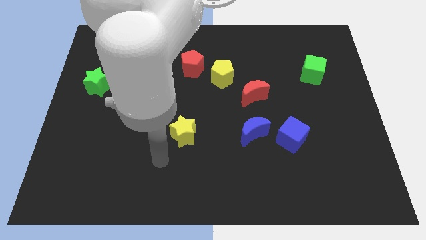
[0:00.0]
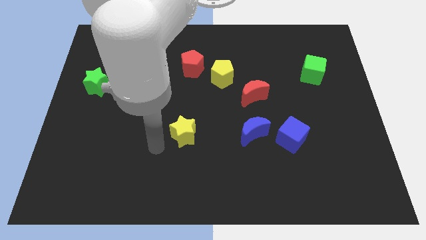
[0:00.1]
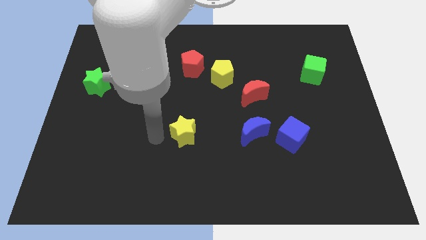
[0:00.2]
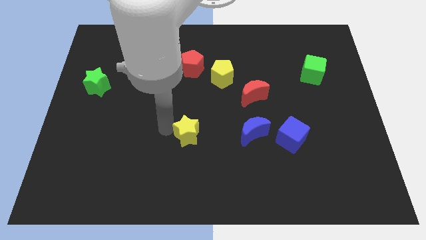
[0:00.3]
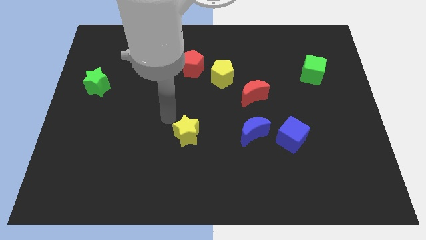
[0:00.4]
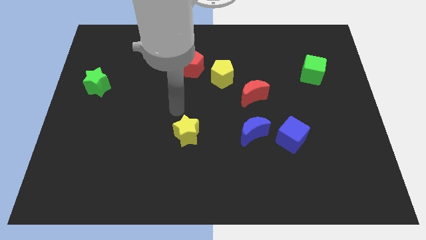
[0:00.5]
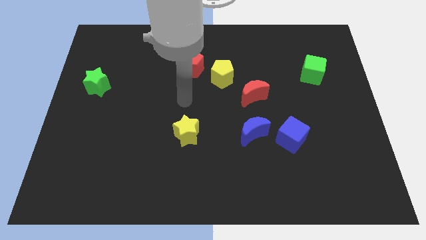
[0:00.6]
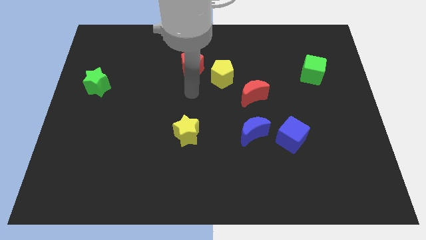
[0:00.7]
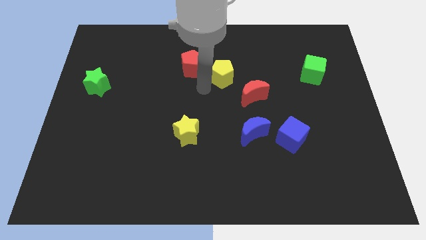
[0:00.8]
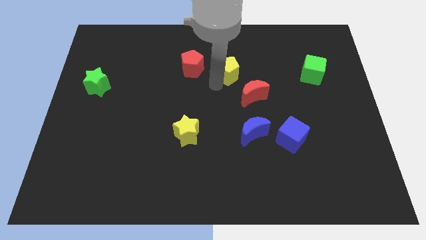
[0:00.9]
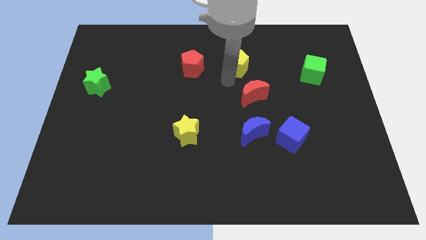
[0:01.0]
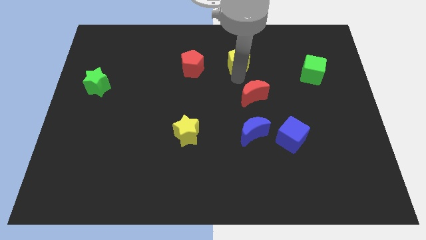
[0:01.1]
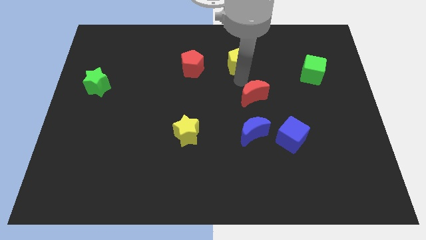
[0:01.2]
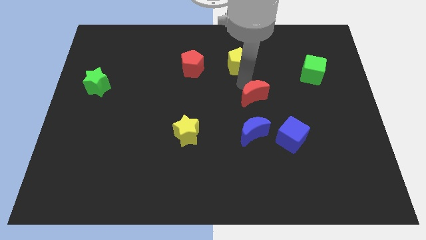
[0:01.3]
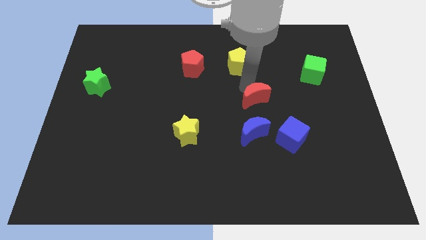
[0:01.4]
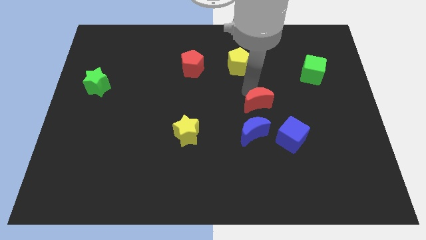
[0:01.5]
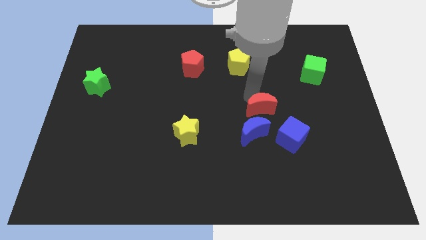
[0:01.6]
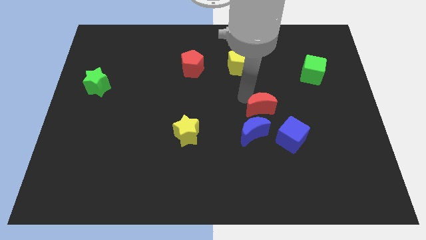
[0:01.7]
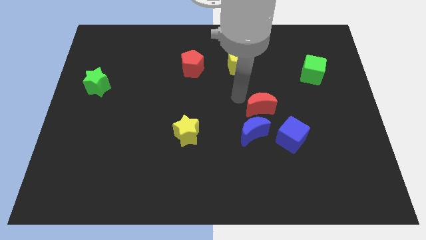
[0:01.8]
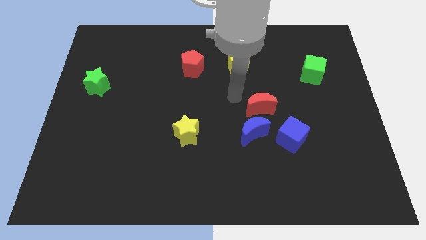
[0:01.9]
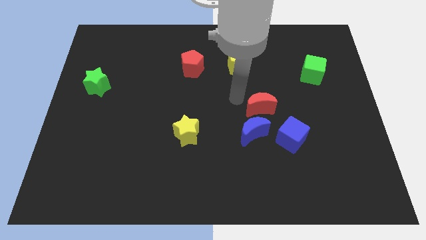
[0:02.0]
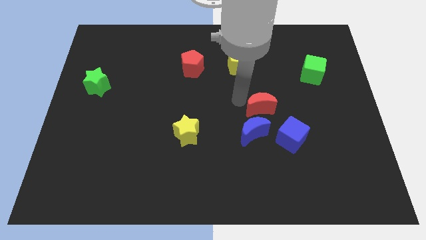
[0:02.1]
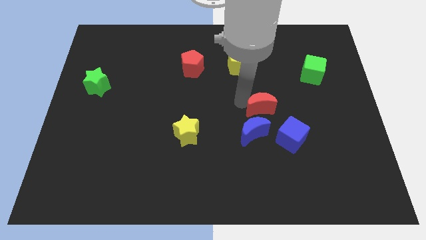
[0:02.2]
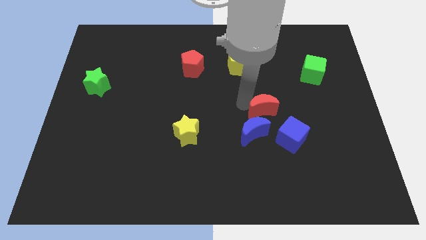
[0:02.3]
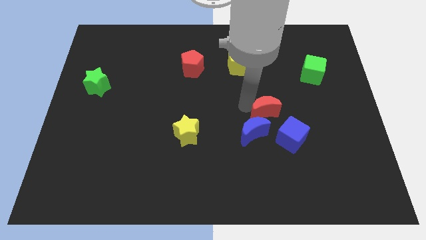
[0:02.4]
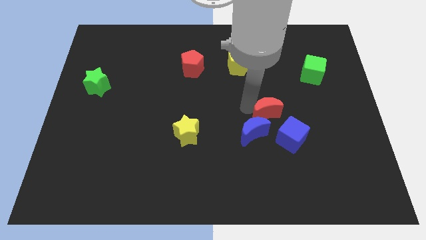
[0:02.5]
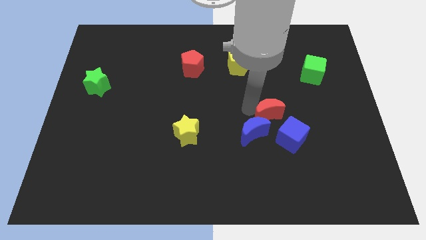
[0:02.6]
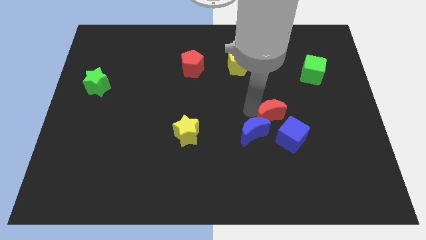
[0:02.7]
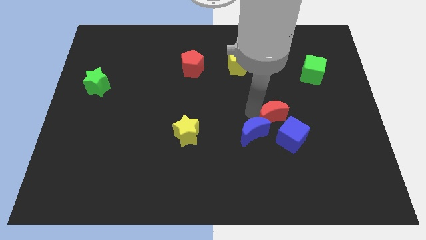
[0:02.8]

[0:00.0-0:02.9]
move the red moon downwards and to the right somewhat

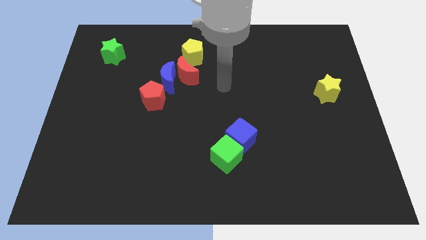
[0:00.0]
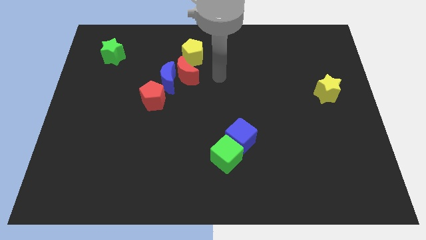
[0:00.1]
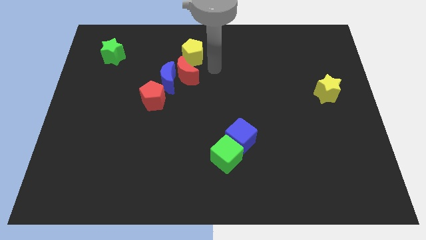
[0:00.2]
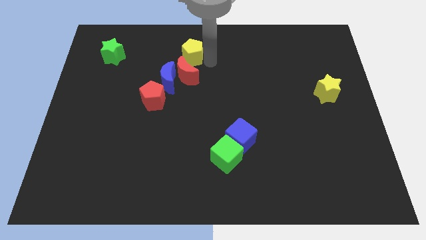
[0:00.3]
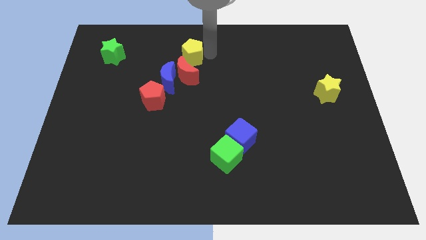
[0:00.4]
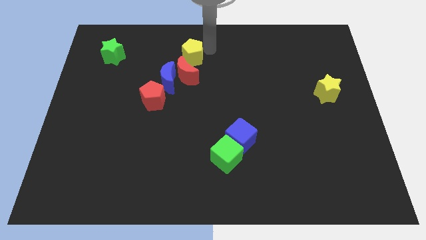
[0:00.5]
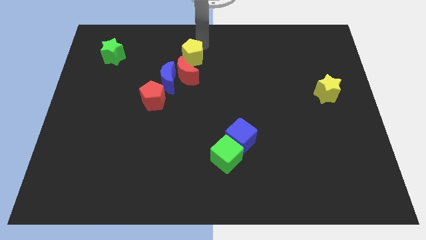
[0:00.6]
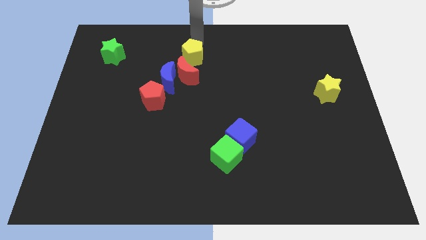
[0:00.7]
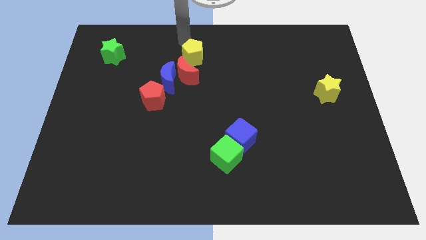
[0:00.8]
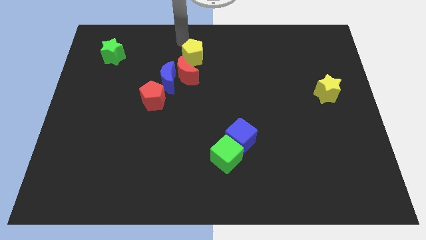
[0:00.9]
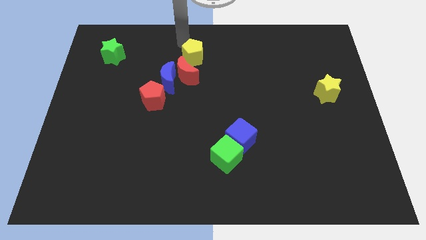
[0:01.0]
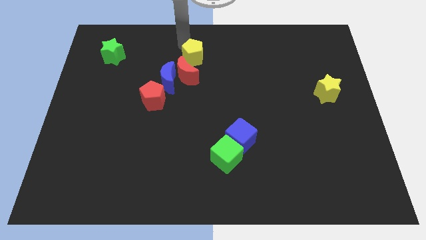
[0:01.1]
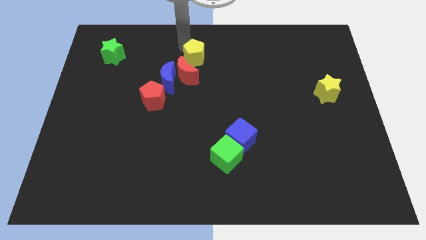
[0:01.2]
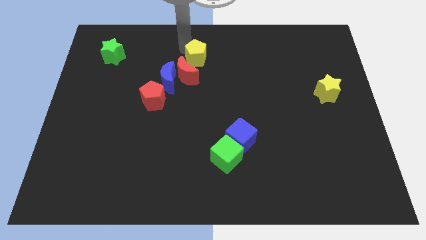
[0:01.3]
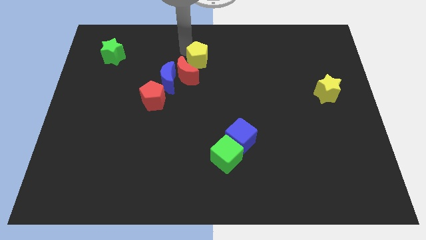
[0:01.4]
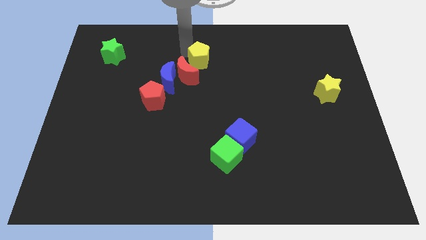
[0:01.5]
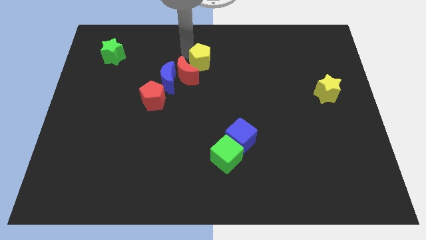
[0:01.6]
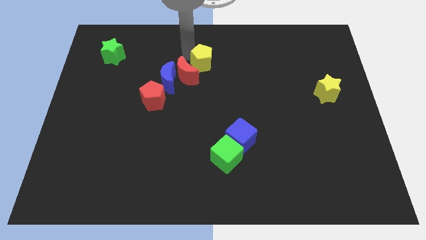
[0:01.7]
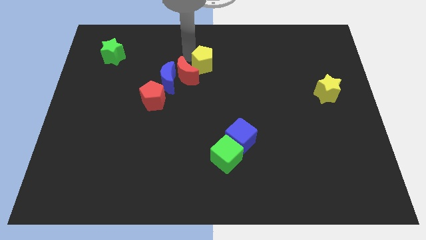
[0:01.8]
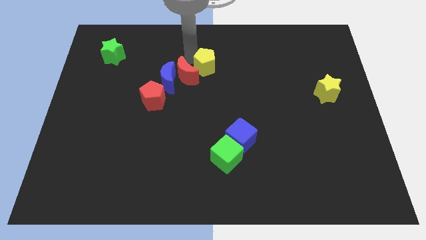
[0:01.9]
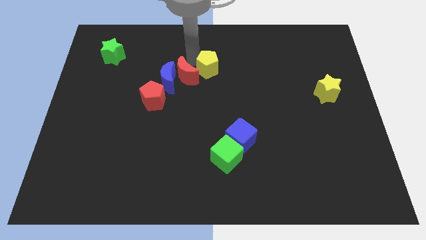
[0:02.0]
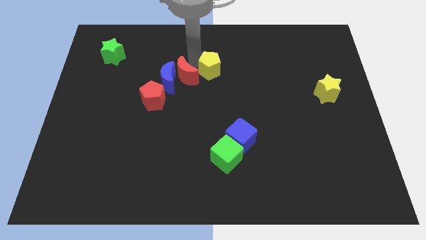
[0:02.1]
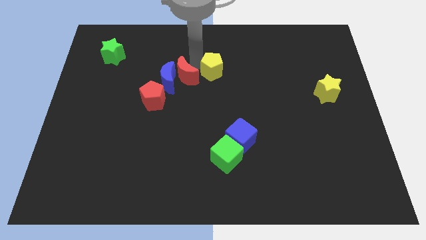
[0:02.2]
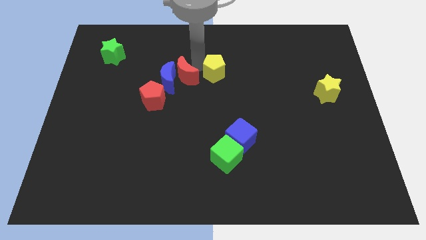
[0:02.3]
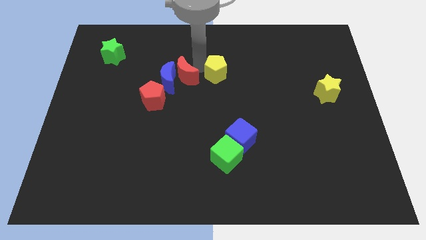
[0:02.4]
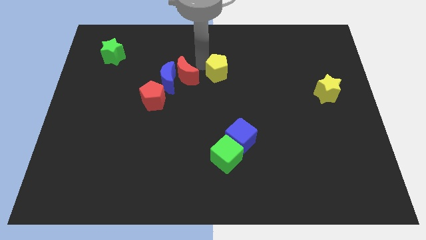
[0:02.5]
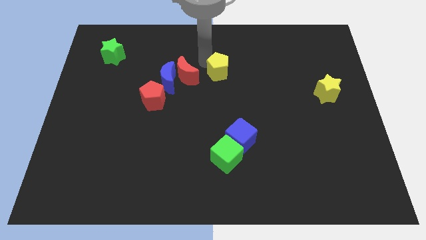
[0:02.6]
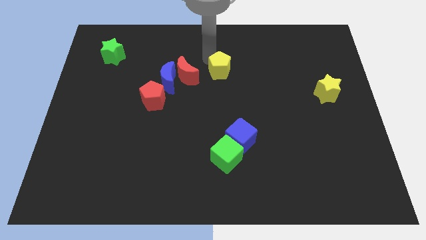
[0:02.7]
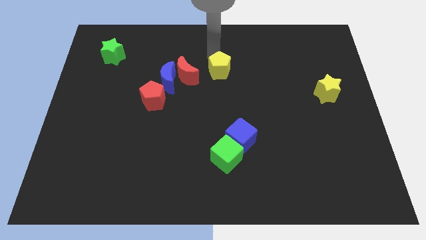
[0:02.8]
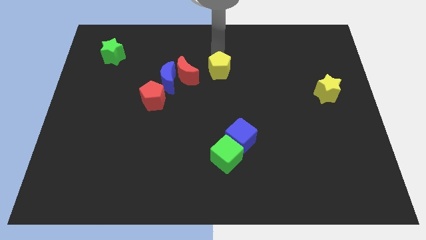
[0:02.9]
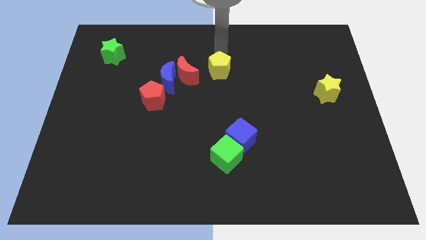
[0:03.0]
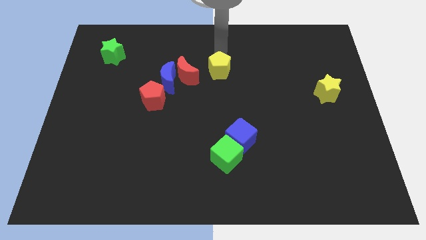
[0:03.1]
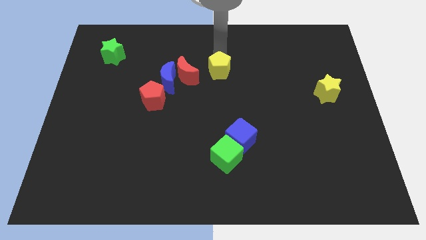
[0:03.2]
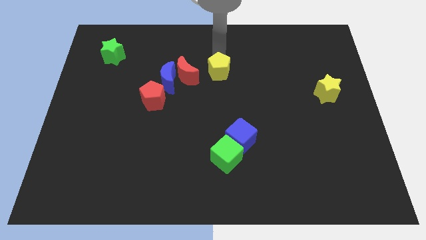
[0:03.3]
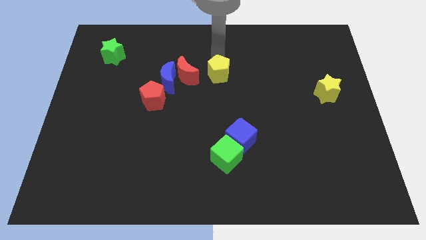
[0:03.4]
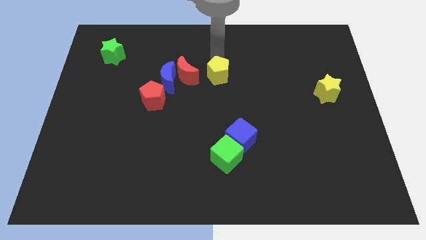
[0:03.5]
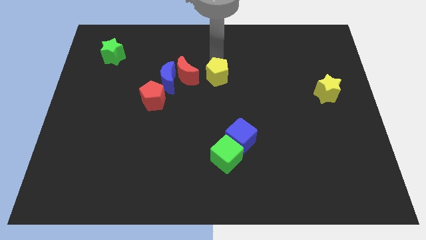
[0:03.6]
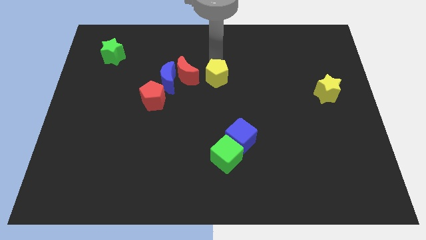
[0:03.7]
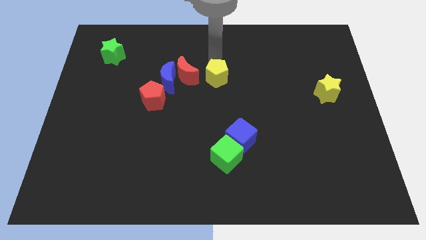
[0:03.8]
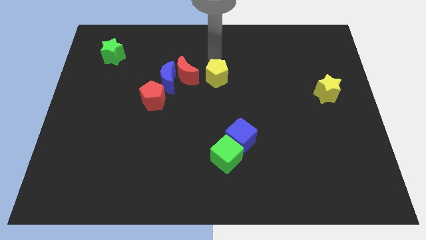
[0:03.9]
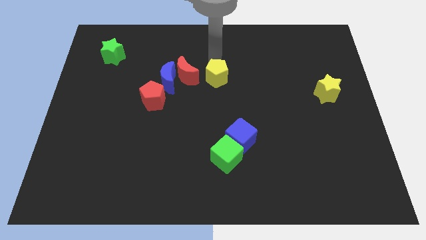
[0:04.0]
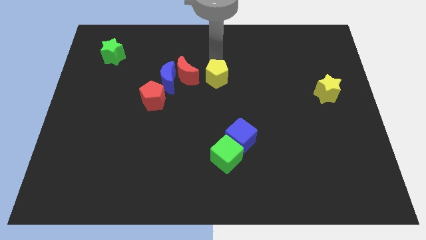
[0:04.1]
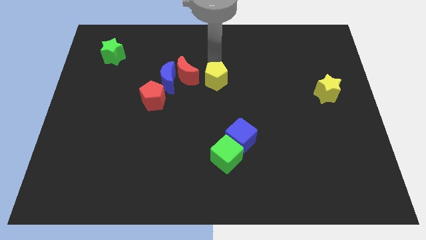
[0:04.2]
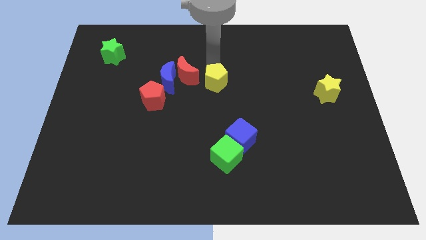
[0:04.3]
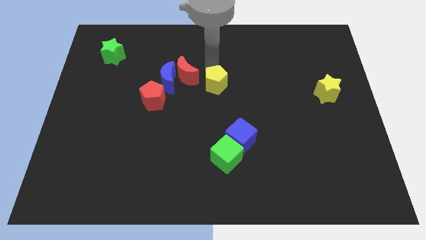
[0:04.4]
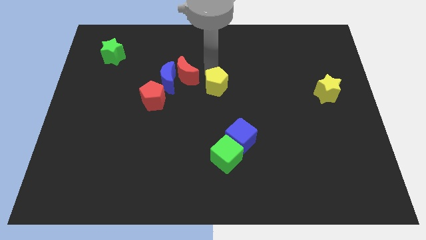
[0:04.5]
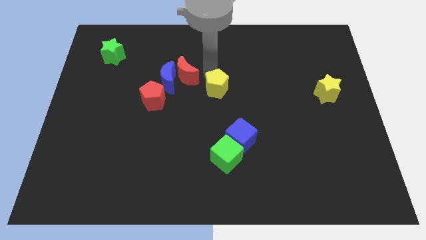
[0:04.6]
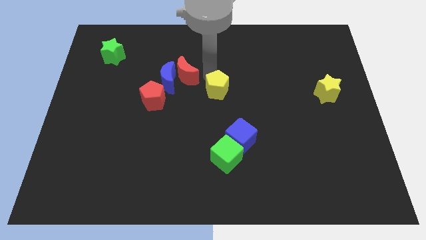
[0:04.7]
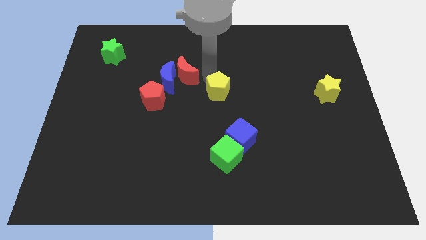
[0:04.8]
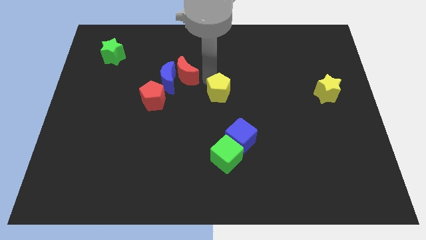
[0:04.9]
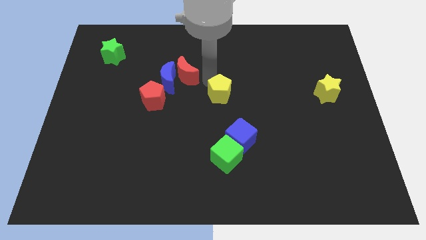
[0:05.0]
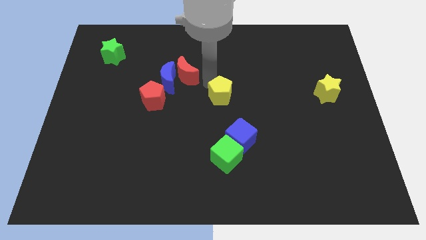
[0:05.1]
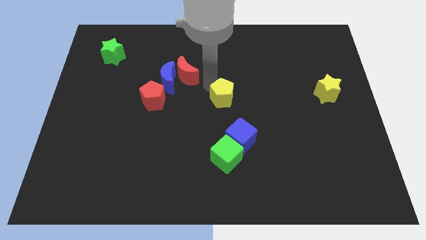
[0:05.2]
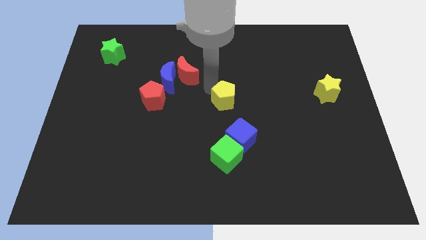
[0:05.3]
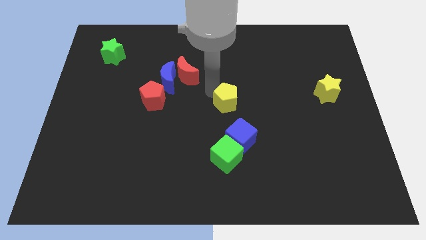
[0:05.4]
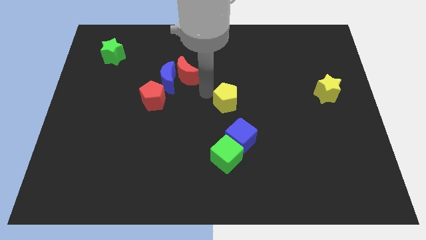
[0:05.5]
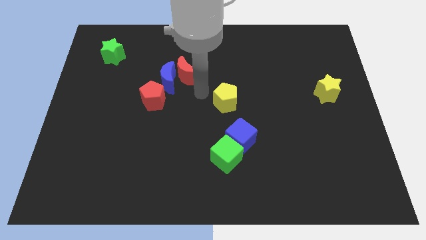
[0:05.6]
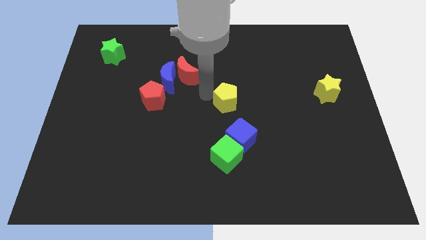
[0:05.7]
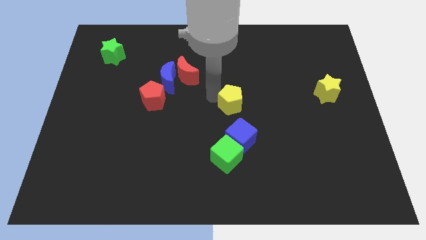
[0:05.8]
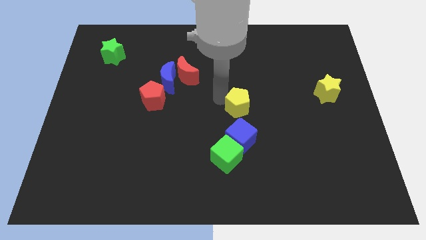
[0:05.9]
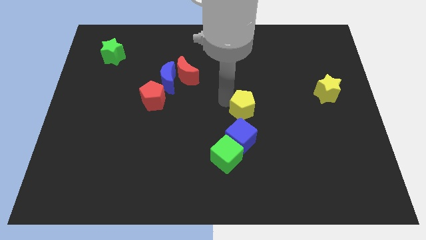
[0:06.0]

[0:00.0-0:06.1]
move the yellow pentagon downwards and right diagonally
